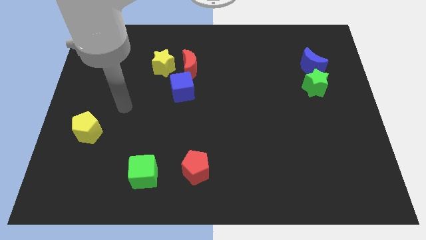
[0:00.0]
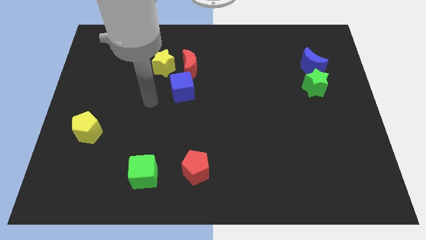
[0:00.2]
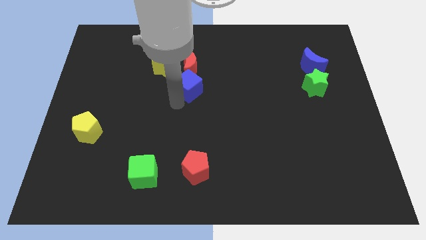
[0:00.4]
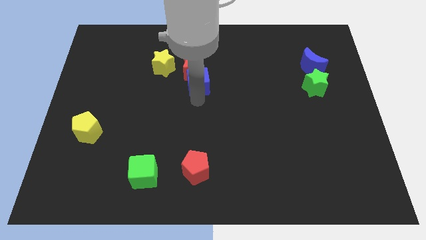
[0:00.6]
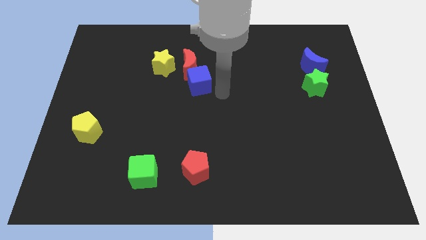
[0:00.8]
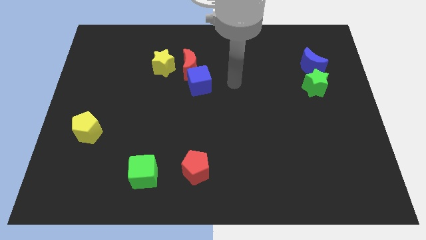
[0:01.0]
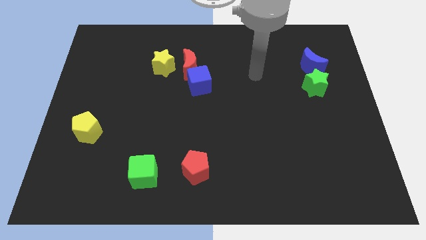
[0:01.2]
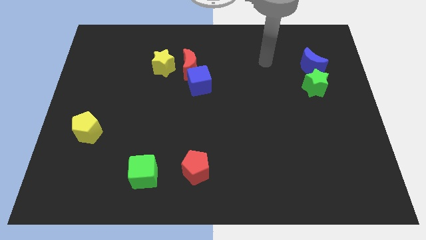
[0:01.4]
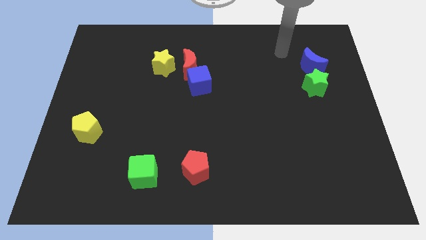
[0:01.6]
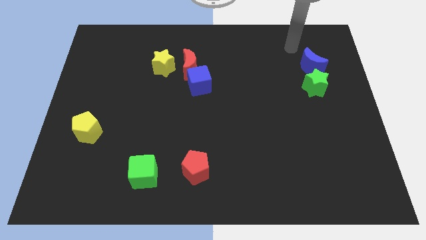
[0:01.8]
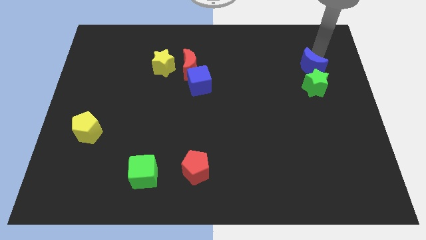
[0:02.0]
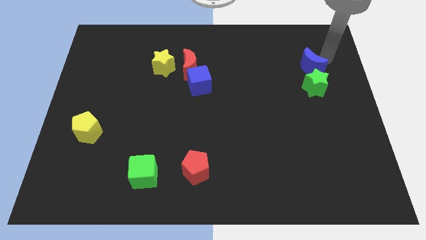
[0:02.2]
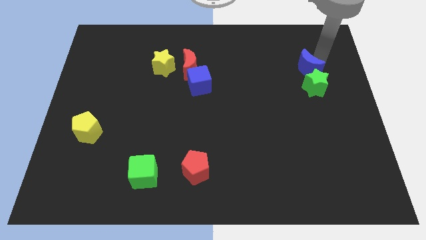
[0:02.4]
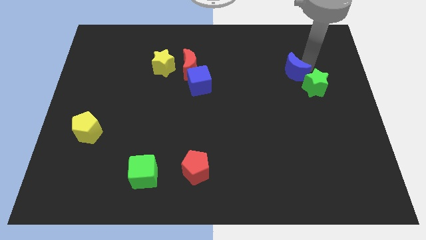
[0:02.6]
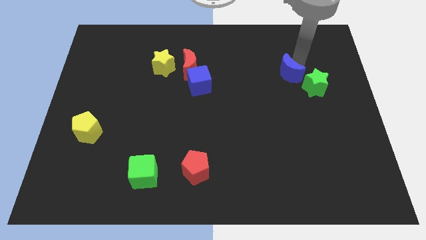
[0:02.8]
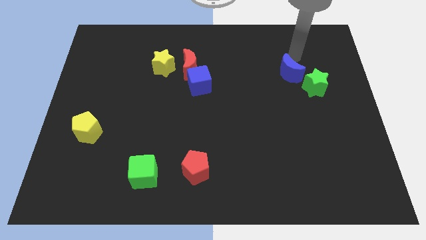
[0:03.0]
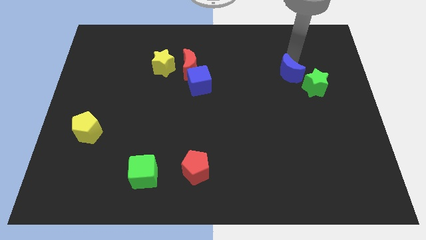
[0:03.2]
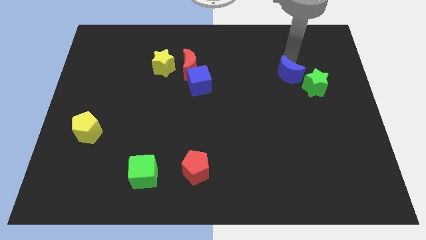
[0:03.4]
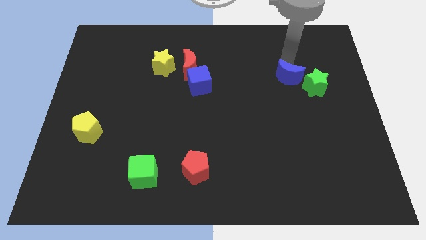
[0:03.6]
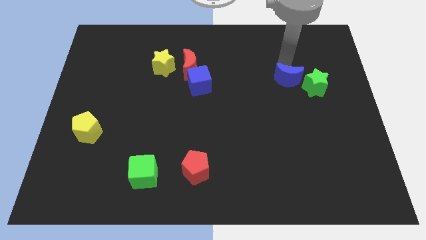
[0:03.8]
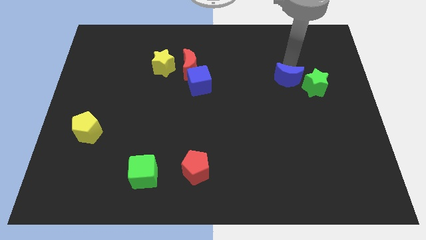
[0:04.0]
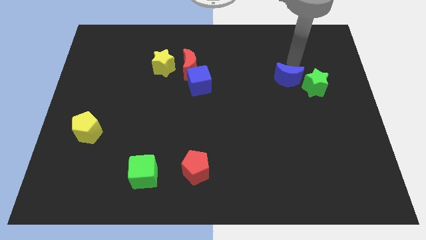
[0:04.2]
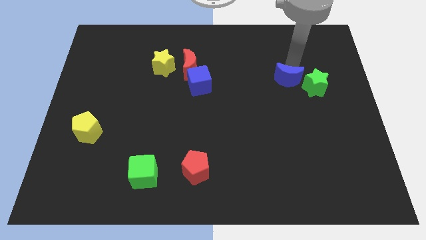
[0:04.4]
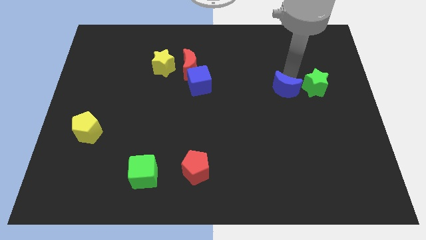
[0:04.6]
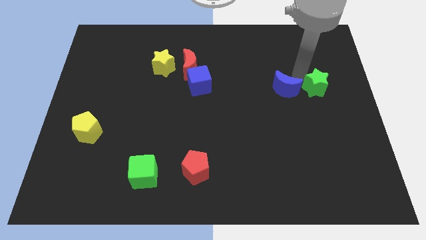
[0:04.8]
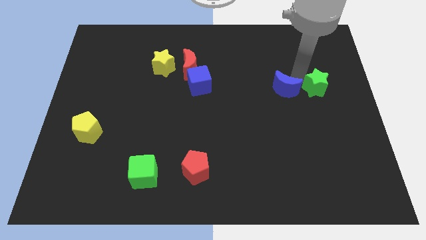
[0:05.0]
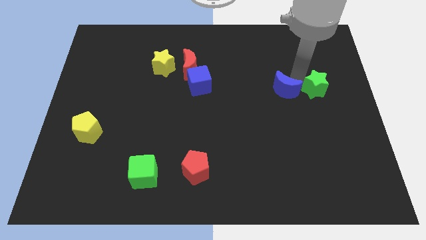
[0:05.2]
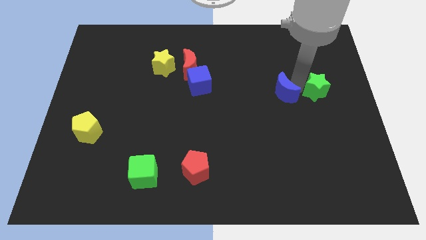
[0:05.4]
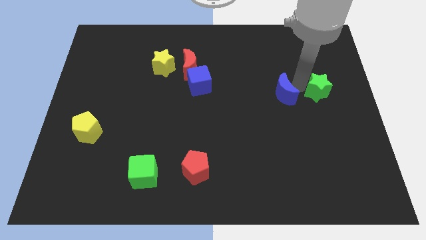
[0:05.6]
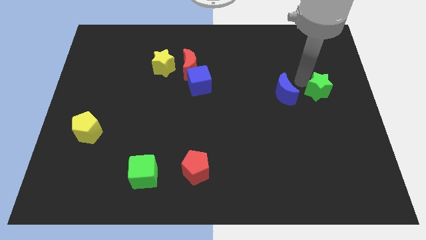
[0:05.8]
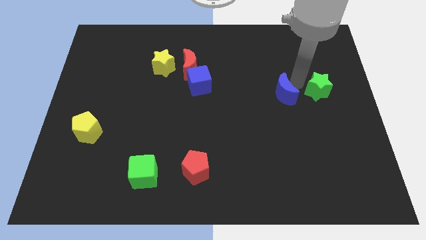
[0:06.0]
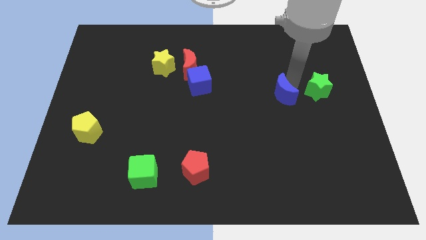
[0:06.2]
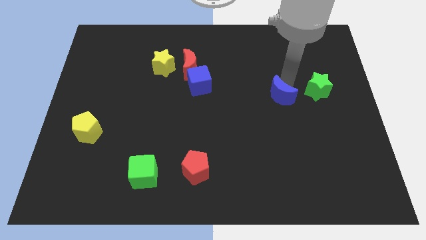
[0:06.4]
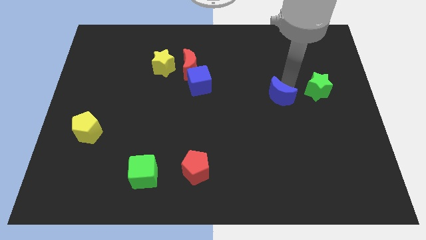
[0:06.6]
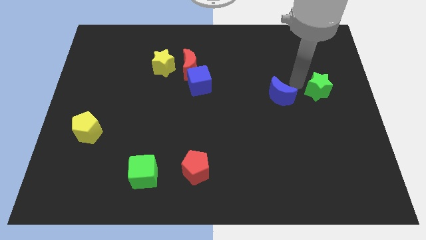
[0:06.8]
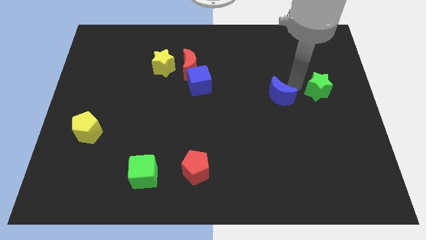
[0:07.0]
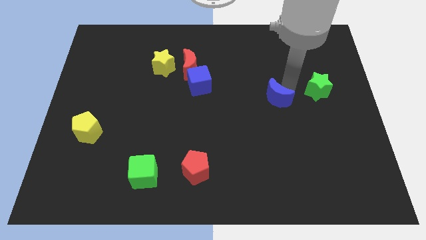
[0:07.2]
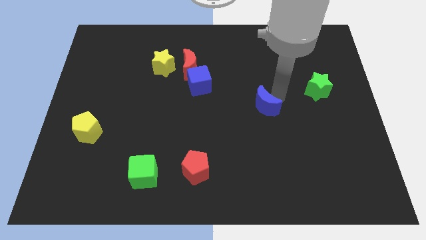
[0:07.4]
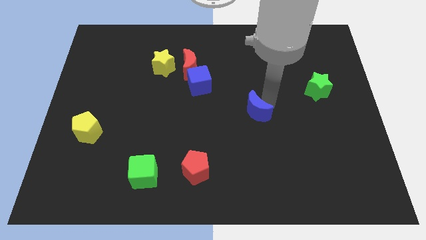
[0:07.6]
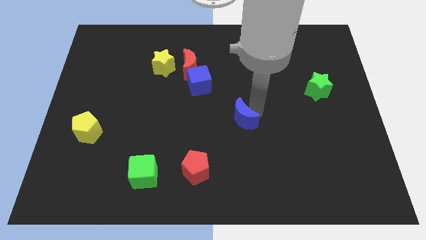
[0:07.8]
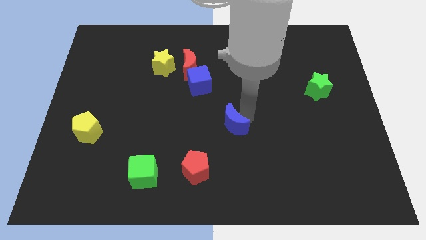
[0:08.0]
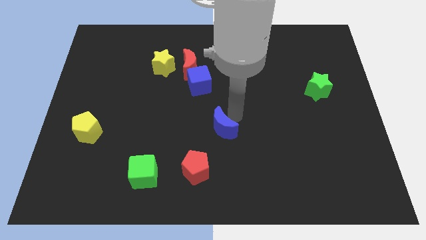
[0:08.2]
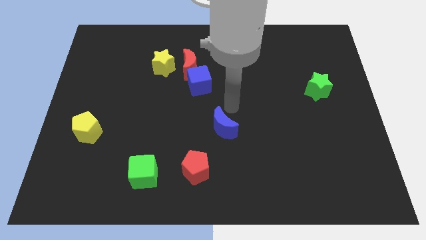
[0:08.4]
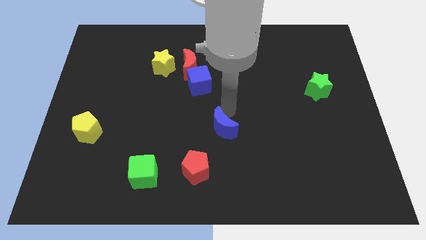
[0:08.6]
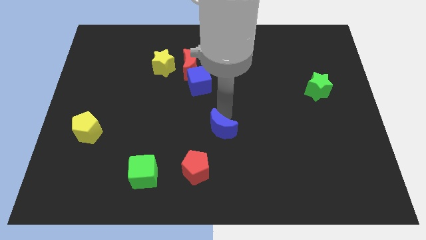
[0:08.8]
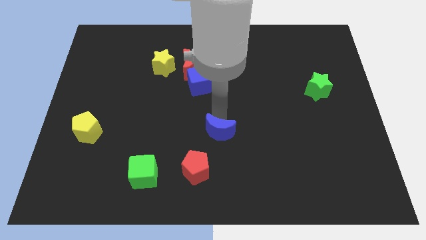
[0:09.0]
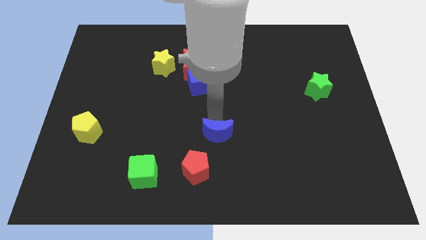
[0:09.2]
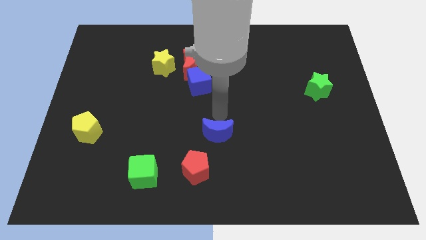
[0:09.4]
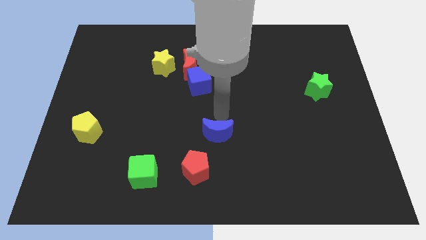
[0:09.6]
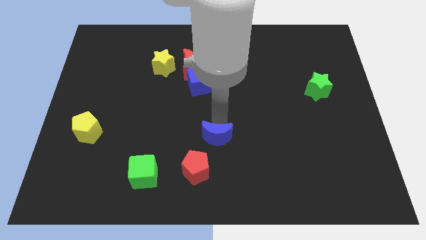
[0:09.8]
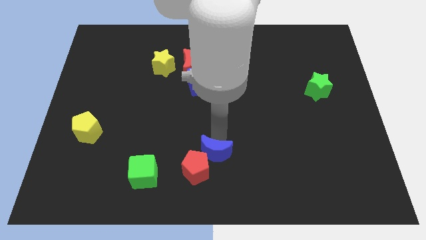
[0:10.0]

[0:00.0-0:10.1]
slide the blue moon next to the red pentagon

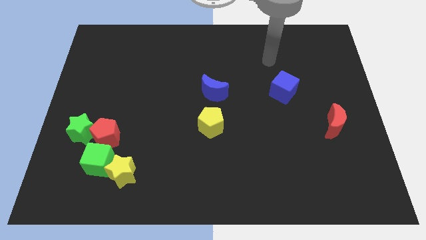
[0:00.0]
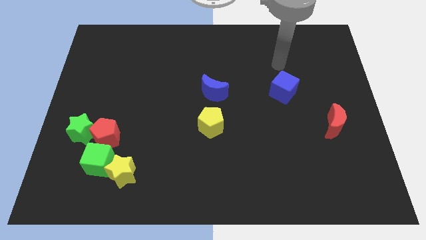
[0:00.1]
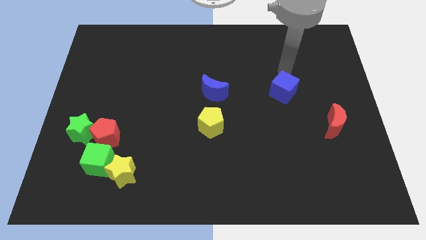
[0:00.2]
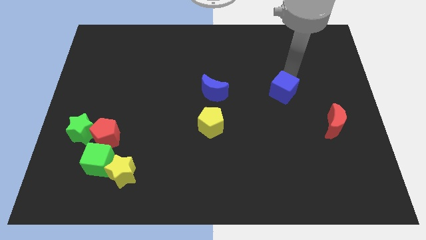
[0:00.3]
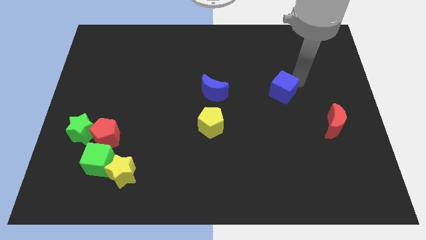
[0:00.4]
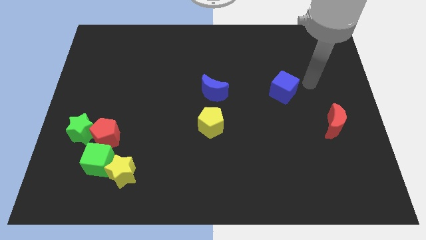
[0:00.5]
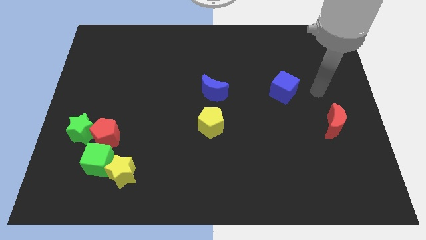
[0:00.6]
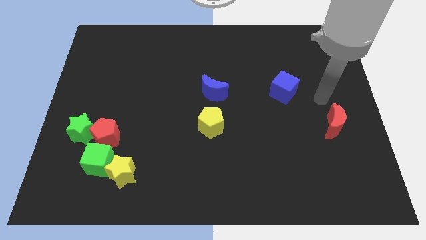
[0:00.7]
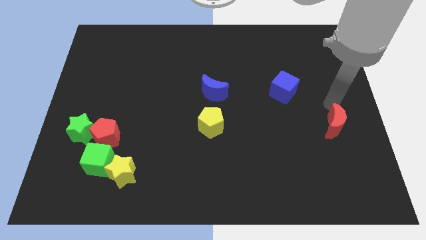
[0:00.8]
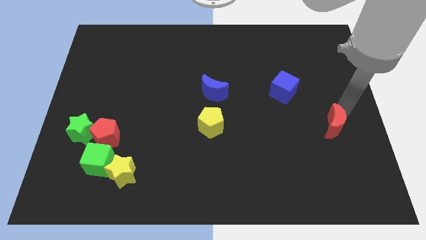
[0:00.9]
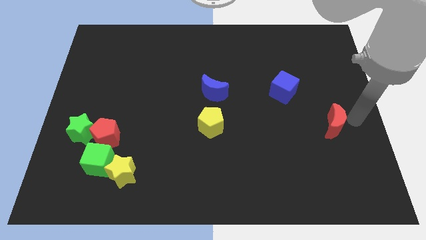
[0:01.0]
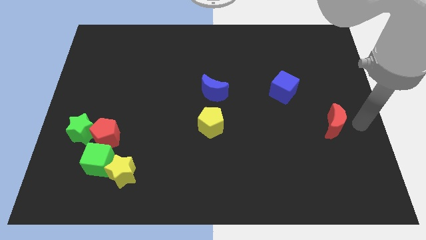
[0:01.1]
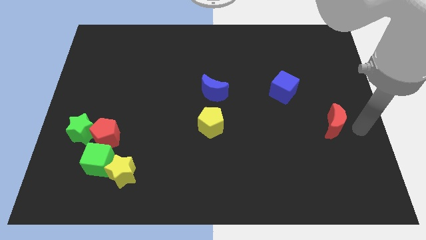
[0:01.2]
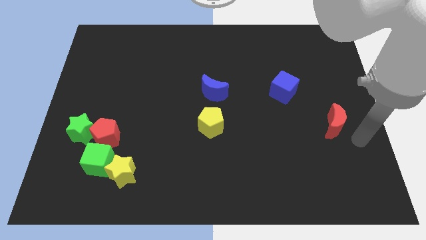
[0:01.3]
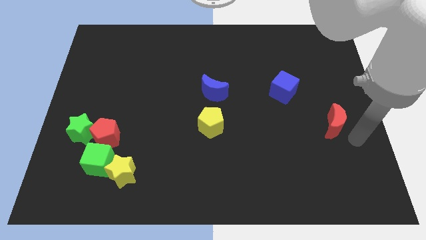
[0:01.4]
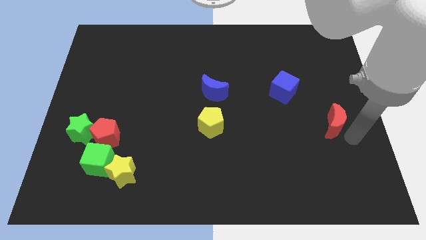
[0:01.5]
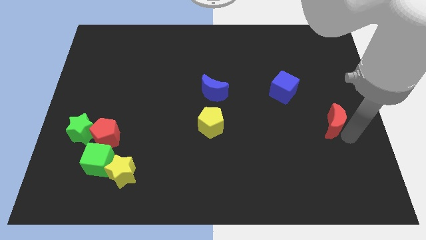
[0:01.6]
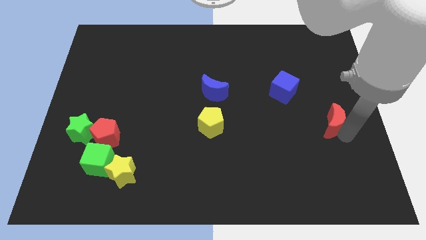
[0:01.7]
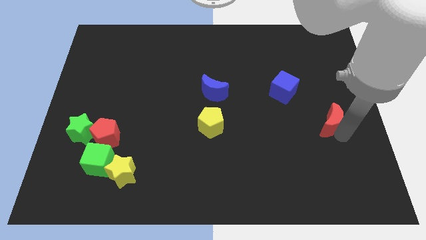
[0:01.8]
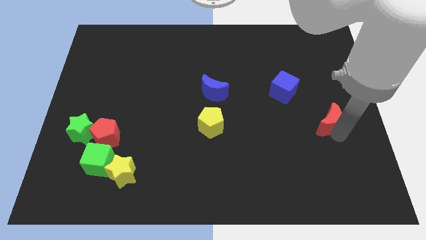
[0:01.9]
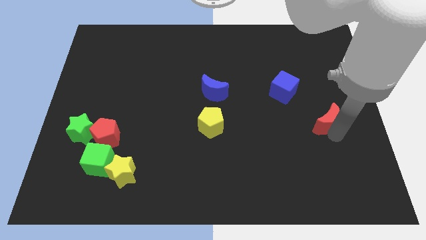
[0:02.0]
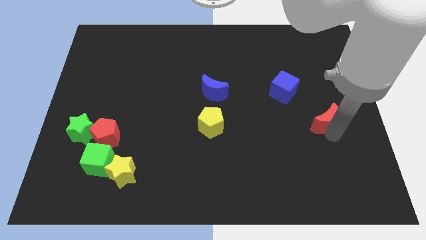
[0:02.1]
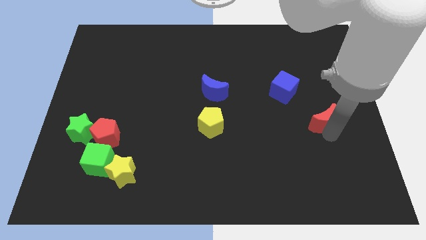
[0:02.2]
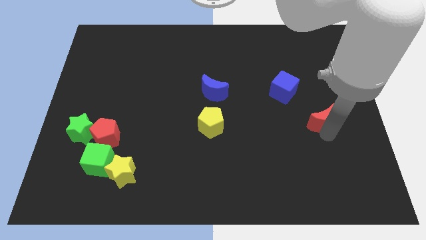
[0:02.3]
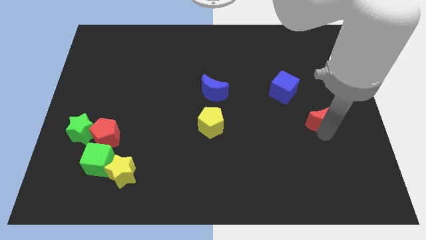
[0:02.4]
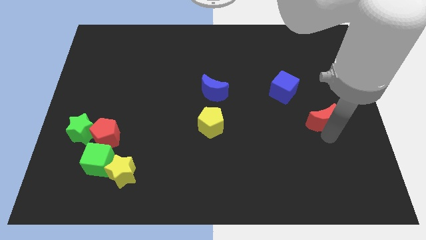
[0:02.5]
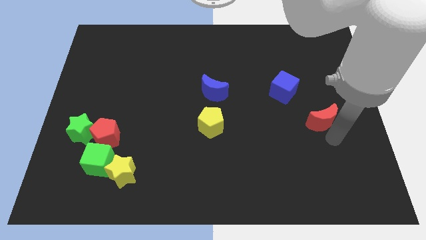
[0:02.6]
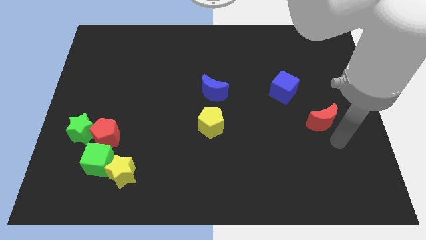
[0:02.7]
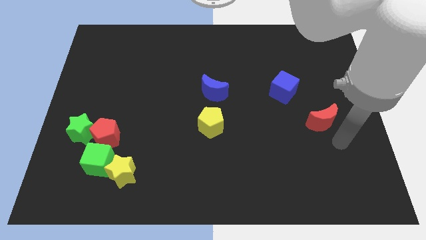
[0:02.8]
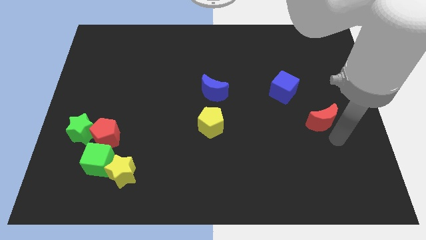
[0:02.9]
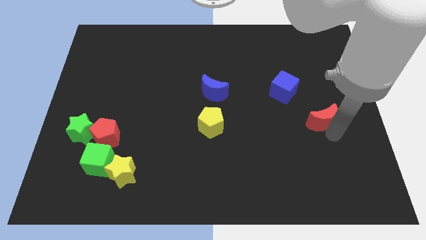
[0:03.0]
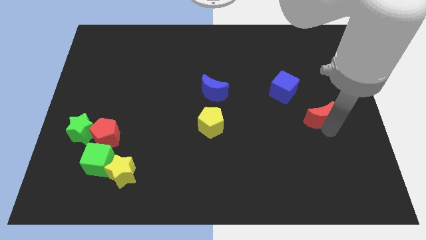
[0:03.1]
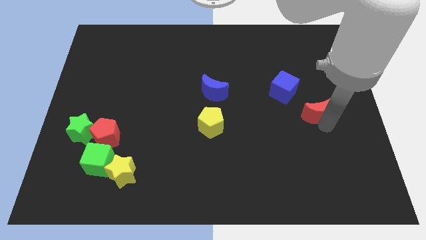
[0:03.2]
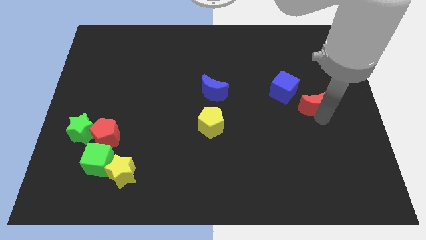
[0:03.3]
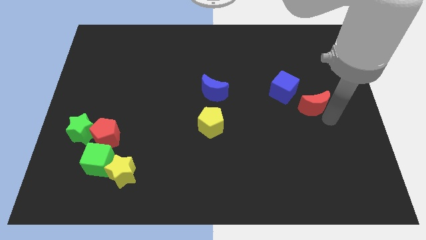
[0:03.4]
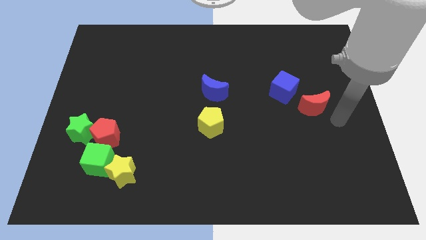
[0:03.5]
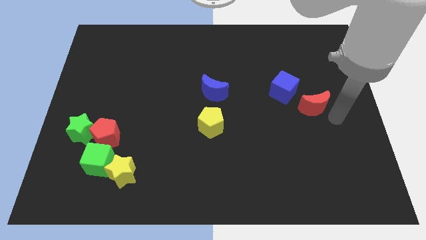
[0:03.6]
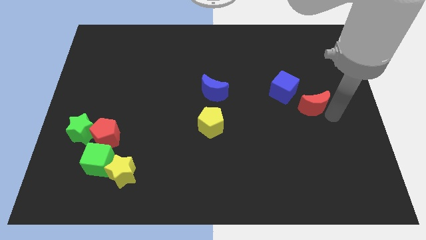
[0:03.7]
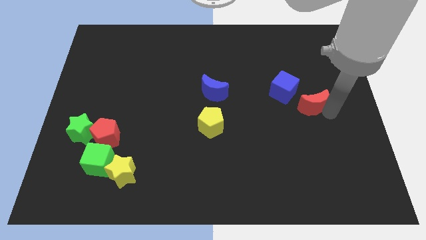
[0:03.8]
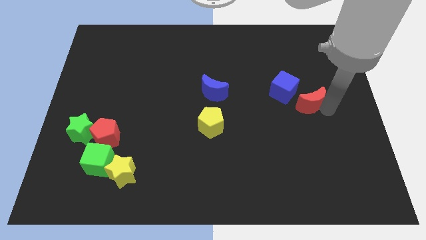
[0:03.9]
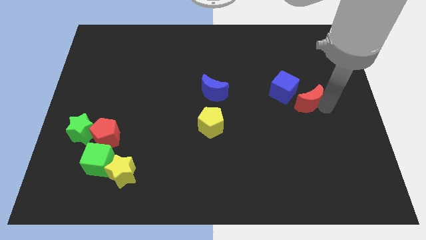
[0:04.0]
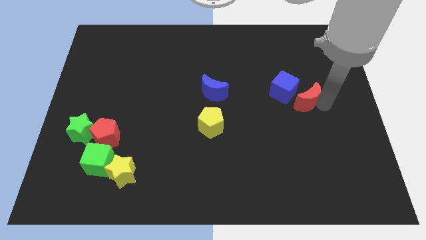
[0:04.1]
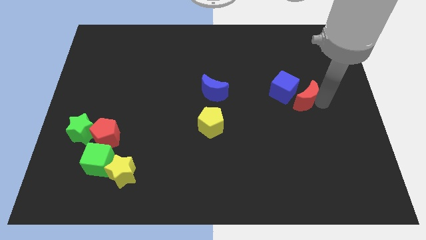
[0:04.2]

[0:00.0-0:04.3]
put the red moon towards the blue cube
